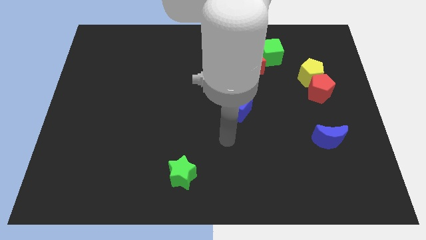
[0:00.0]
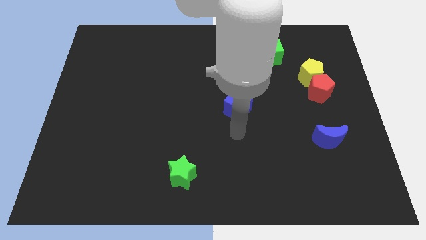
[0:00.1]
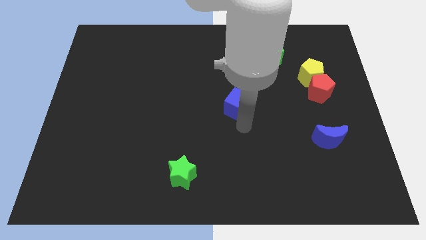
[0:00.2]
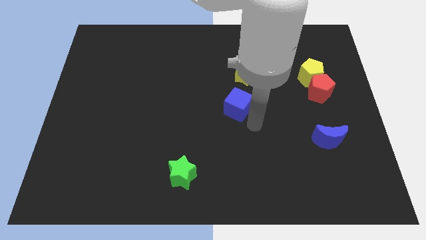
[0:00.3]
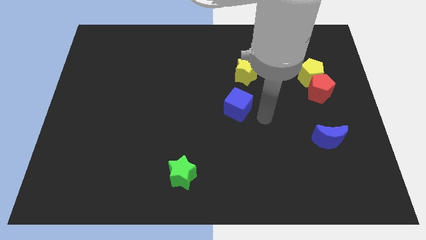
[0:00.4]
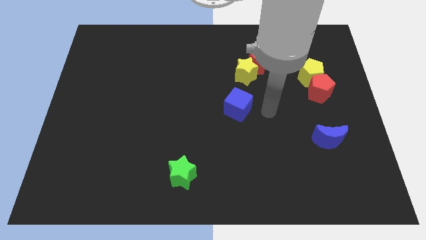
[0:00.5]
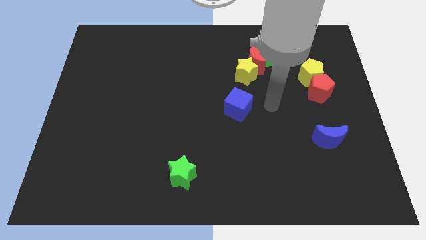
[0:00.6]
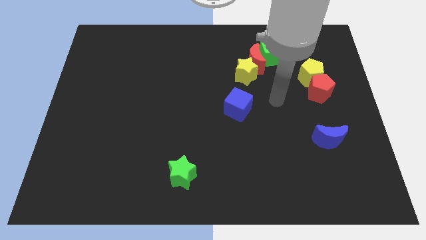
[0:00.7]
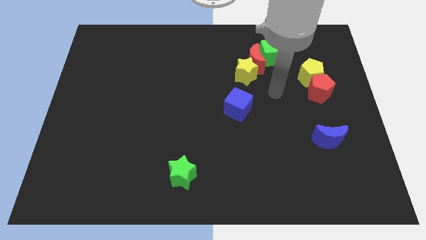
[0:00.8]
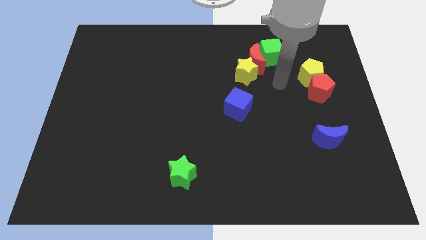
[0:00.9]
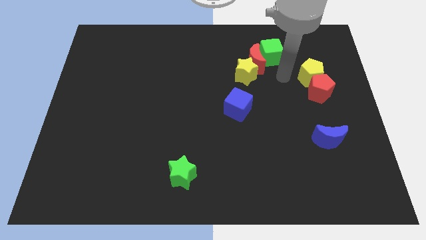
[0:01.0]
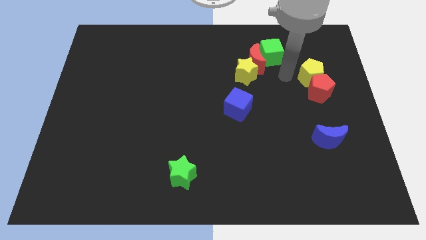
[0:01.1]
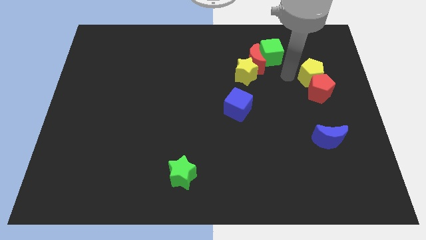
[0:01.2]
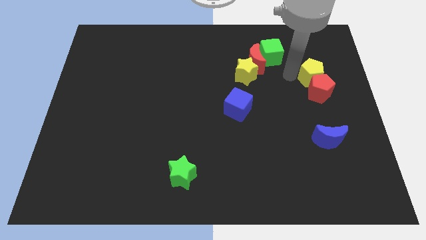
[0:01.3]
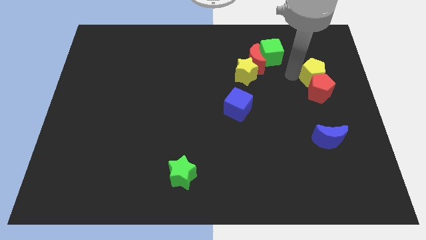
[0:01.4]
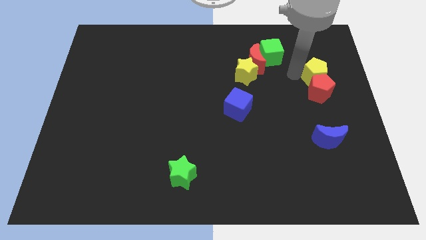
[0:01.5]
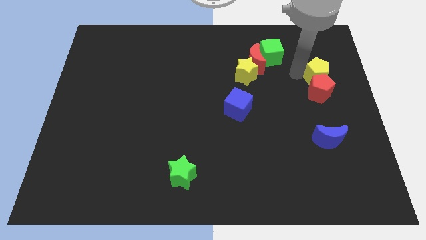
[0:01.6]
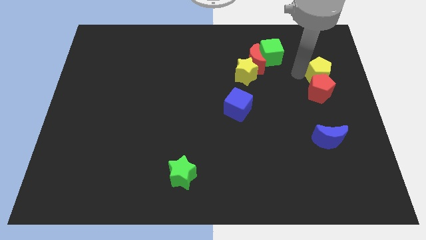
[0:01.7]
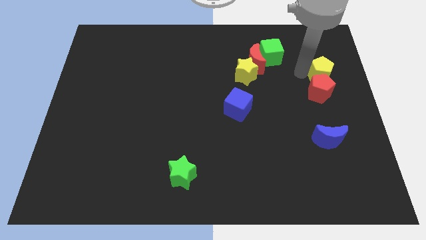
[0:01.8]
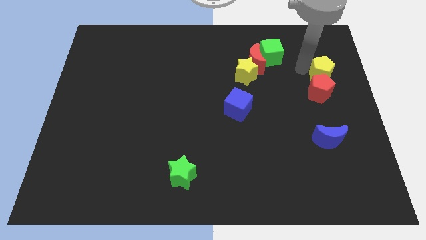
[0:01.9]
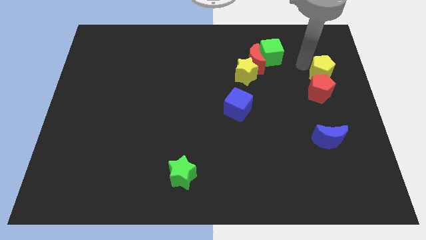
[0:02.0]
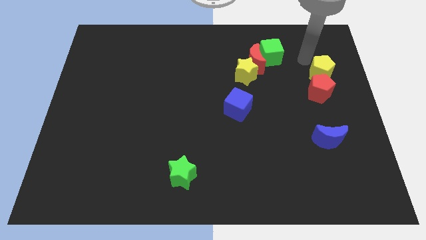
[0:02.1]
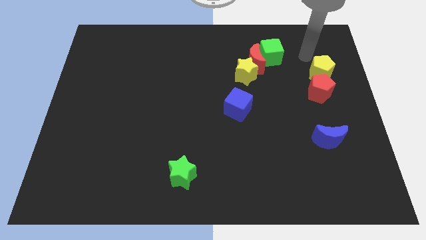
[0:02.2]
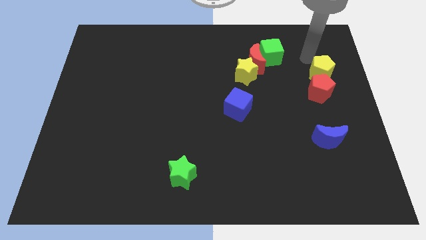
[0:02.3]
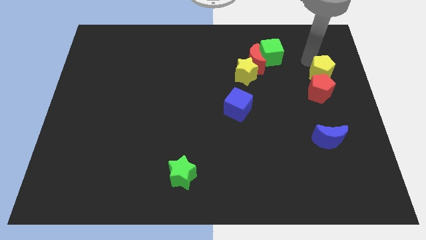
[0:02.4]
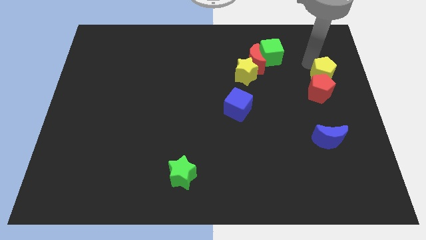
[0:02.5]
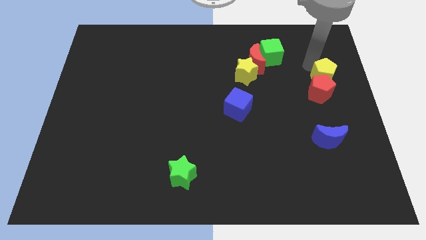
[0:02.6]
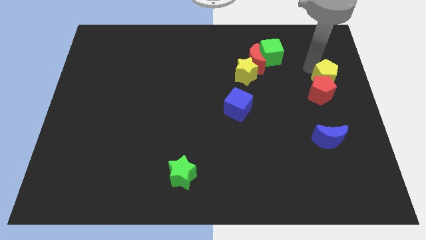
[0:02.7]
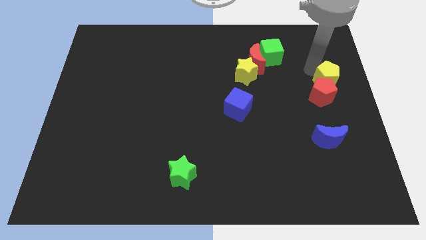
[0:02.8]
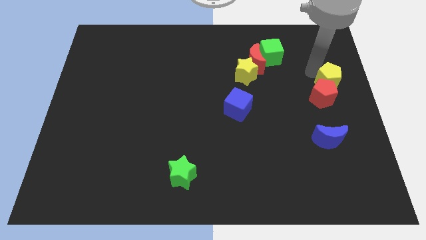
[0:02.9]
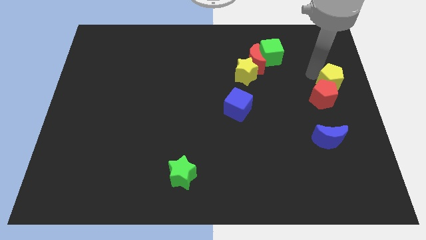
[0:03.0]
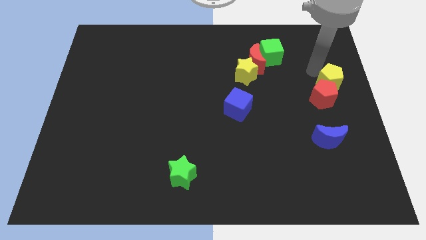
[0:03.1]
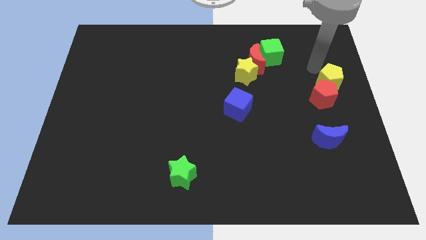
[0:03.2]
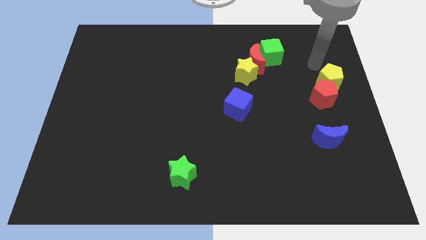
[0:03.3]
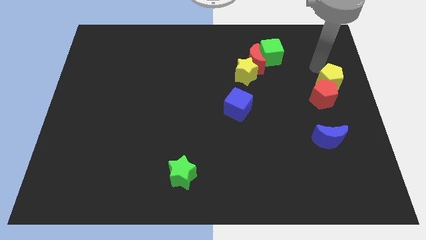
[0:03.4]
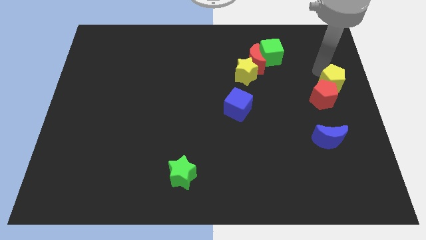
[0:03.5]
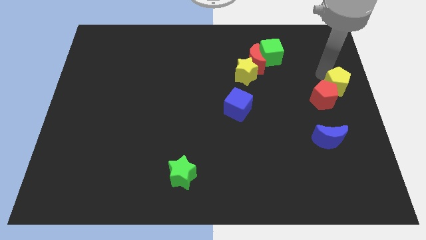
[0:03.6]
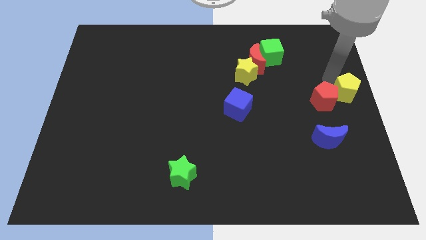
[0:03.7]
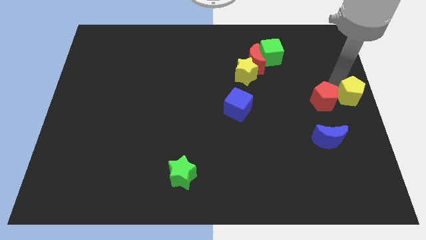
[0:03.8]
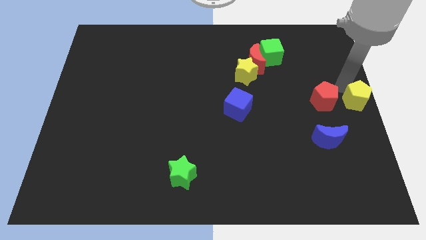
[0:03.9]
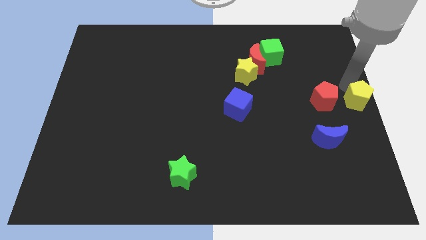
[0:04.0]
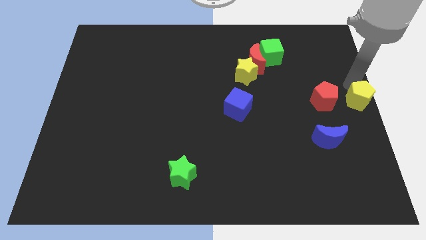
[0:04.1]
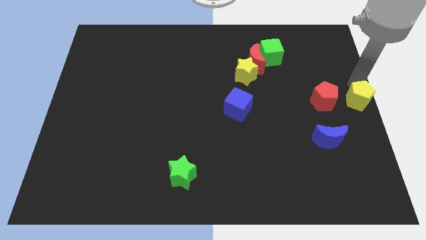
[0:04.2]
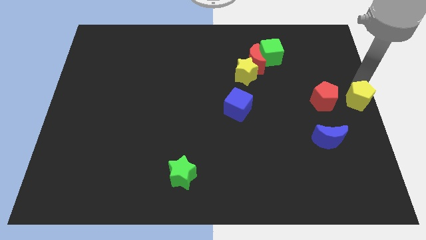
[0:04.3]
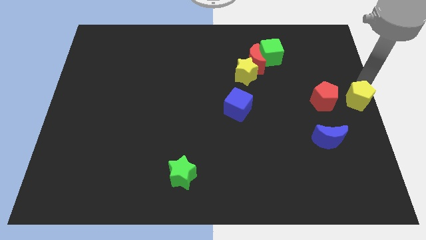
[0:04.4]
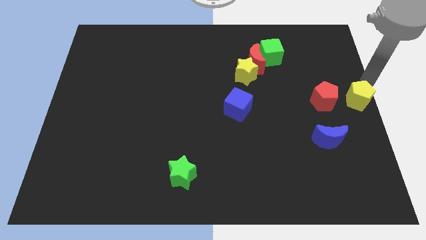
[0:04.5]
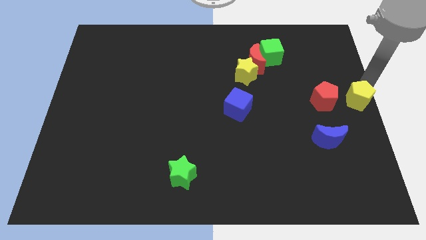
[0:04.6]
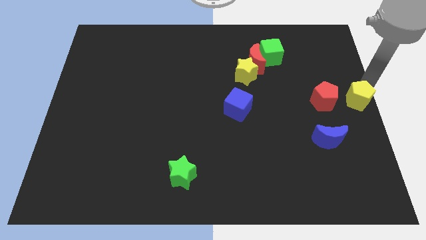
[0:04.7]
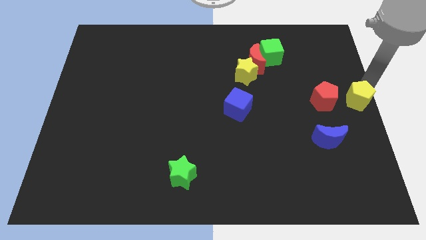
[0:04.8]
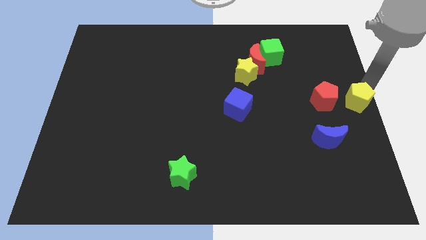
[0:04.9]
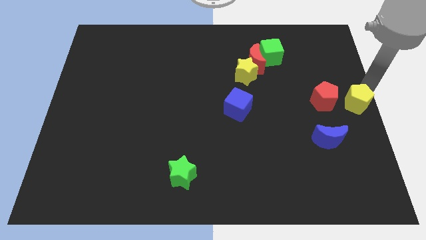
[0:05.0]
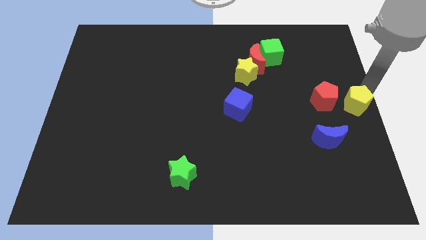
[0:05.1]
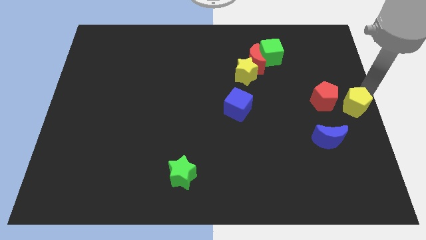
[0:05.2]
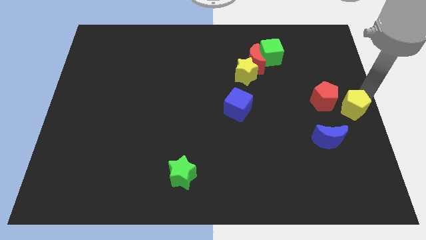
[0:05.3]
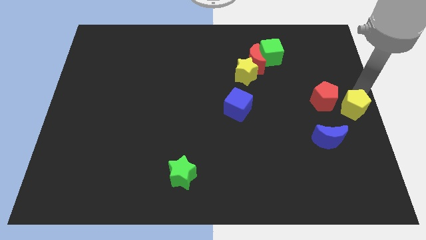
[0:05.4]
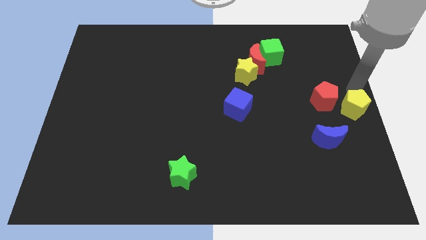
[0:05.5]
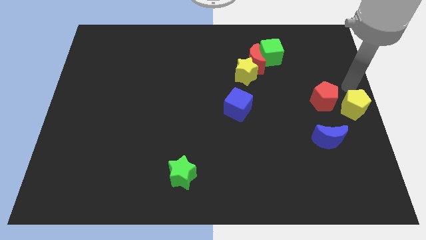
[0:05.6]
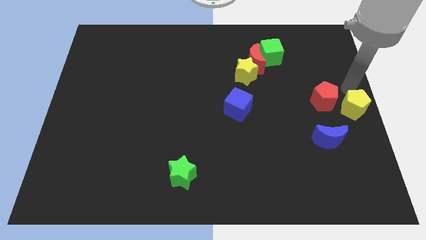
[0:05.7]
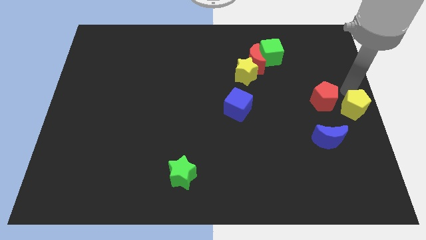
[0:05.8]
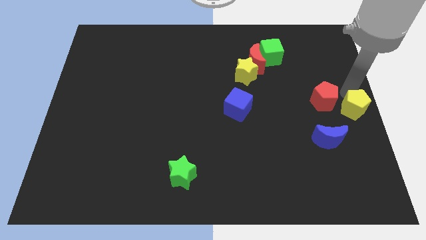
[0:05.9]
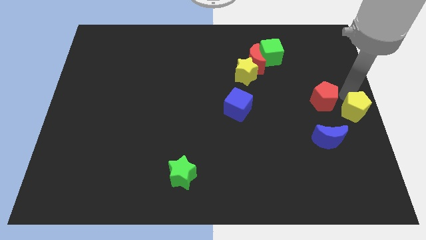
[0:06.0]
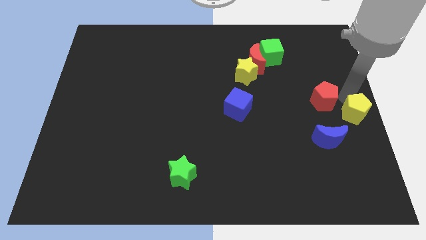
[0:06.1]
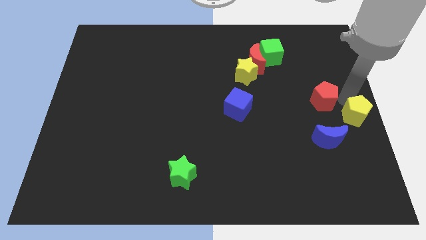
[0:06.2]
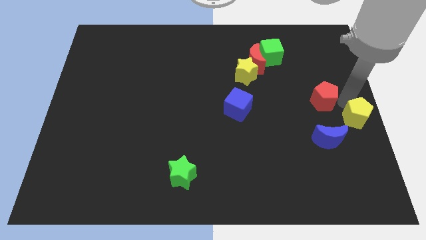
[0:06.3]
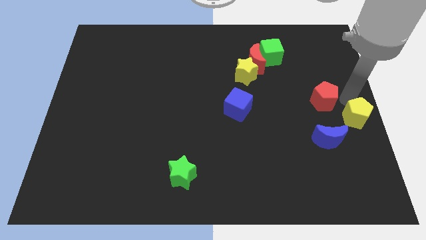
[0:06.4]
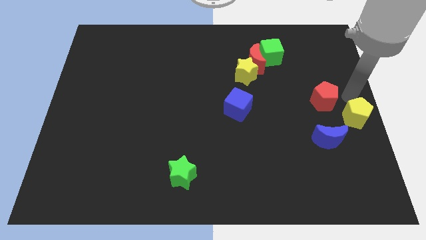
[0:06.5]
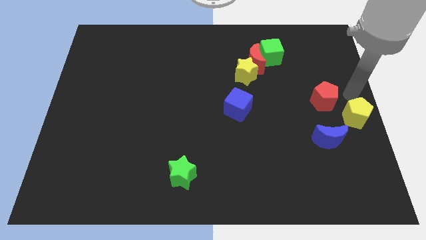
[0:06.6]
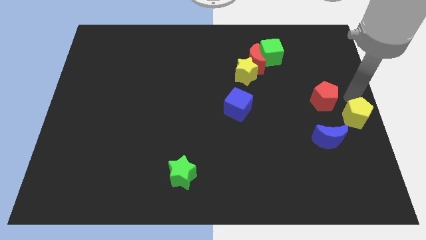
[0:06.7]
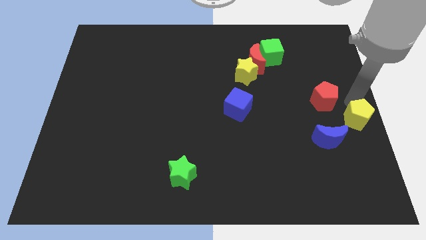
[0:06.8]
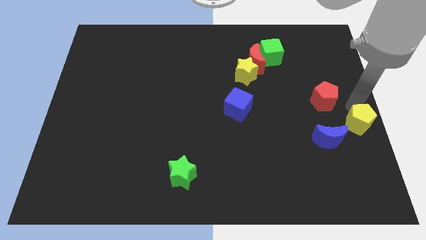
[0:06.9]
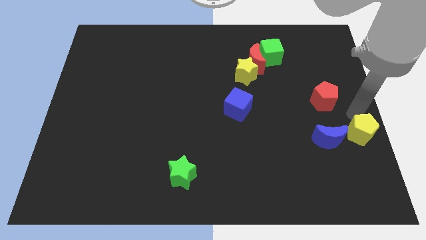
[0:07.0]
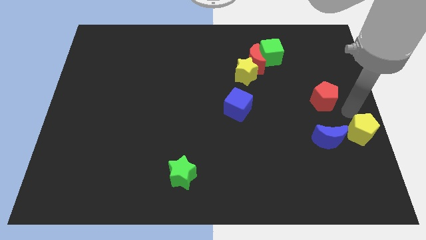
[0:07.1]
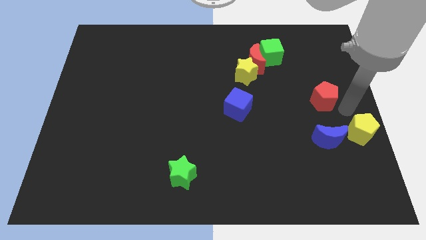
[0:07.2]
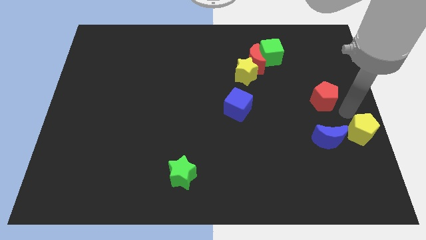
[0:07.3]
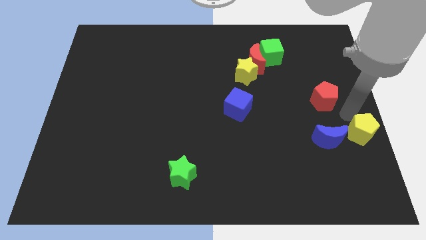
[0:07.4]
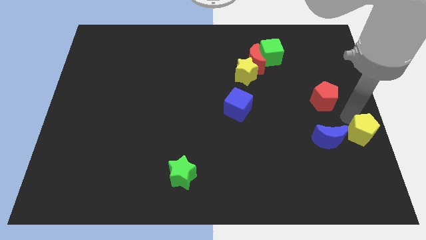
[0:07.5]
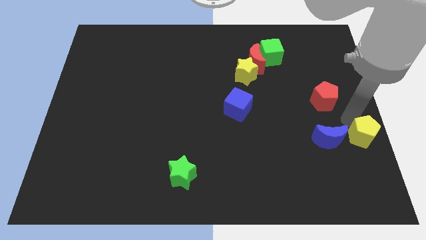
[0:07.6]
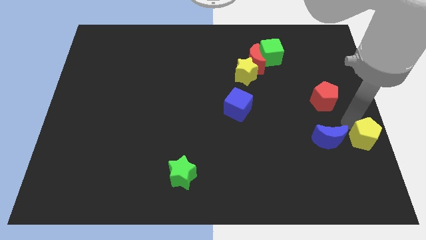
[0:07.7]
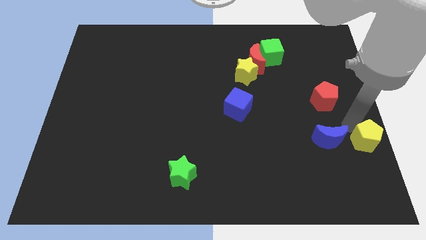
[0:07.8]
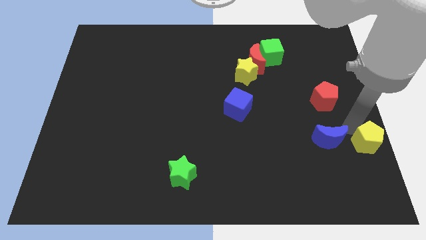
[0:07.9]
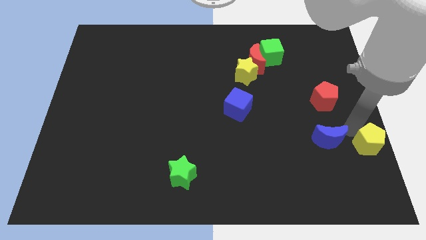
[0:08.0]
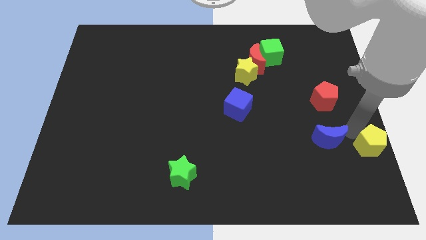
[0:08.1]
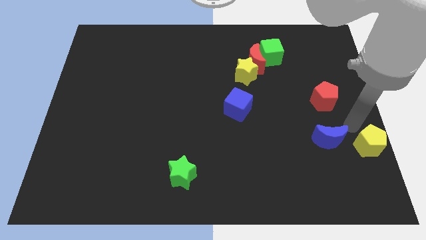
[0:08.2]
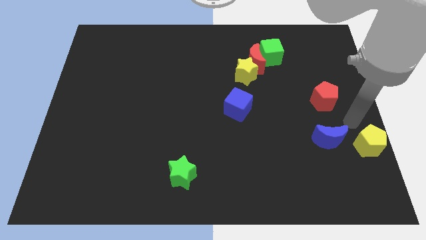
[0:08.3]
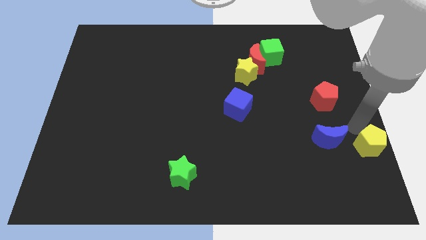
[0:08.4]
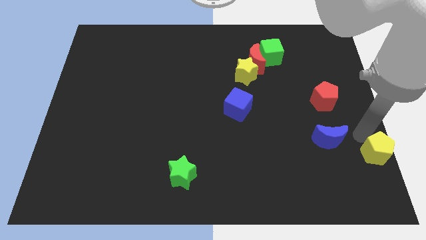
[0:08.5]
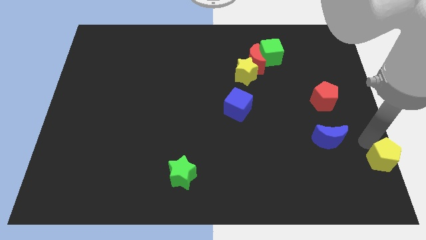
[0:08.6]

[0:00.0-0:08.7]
move the yellow pentagon to the lower right corner
